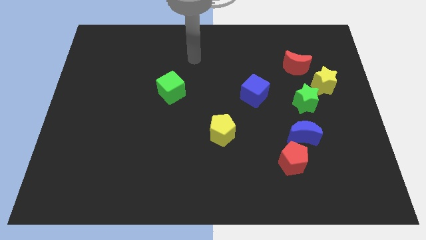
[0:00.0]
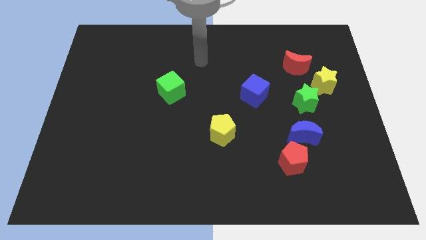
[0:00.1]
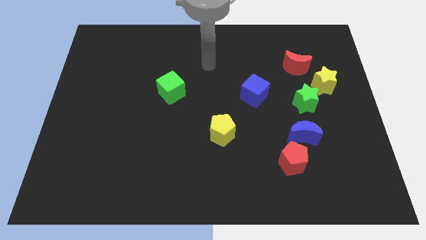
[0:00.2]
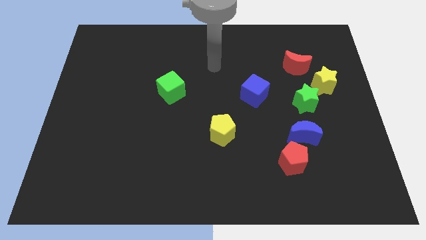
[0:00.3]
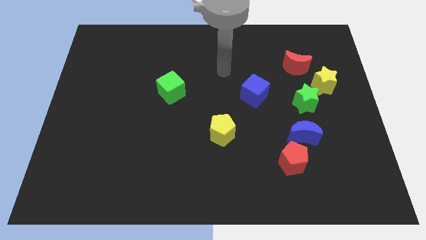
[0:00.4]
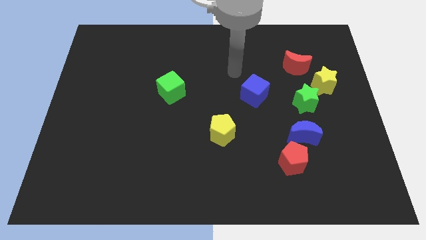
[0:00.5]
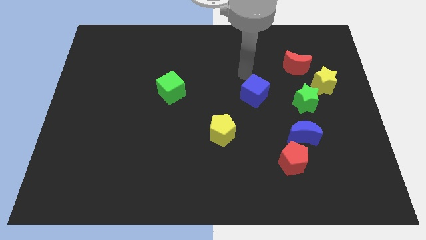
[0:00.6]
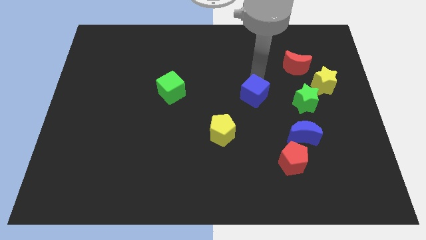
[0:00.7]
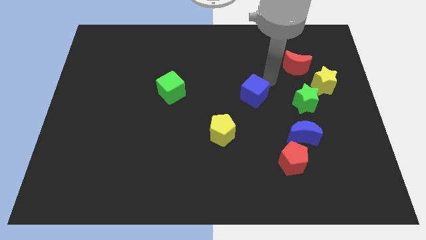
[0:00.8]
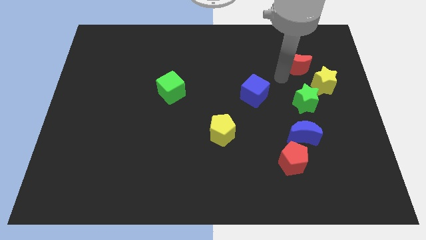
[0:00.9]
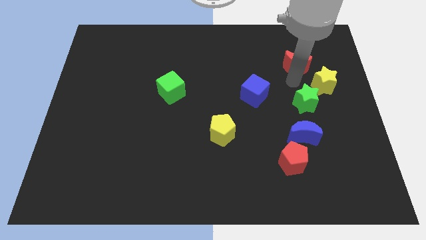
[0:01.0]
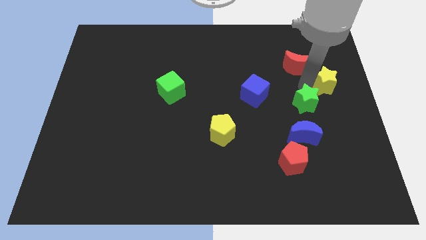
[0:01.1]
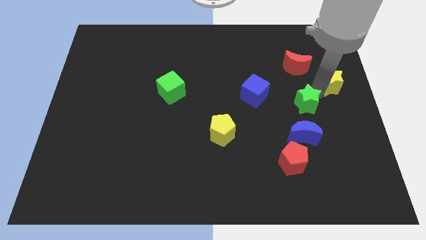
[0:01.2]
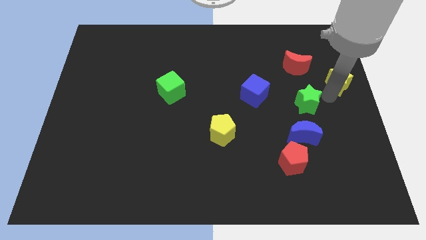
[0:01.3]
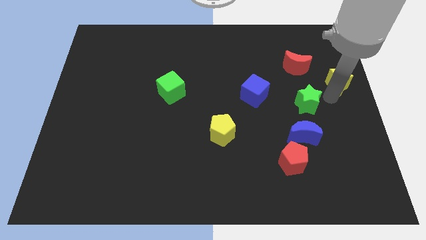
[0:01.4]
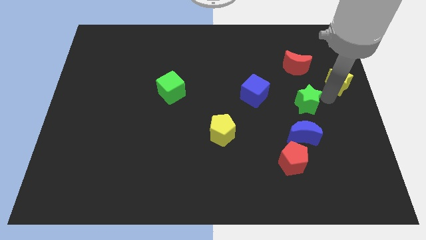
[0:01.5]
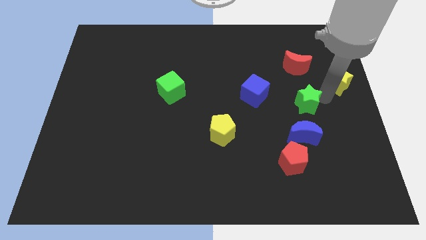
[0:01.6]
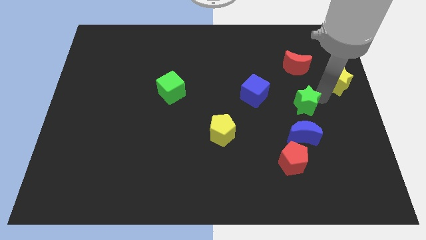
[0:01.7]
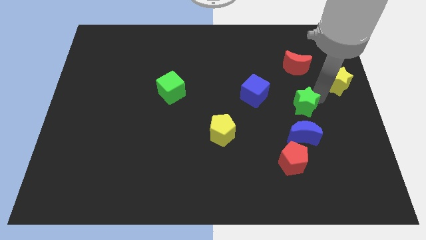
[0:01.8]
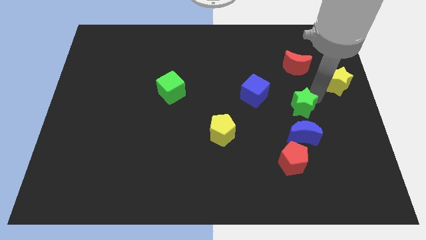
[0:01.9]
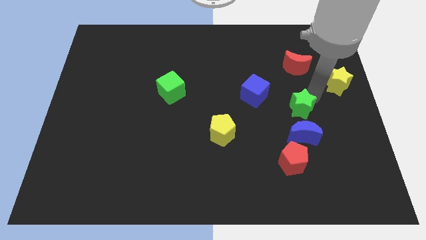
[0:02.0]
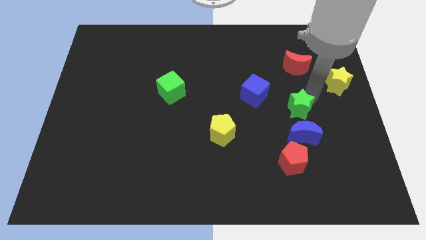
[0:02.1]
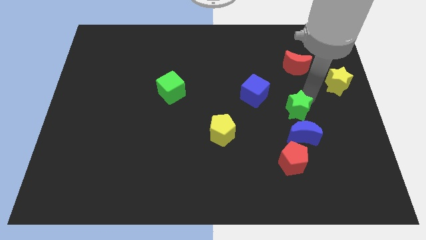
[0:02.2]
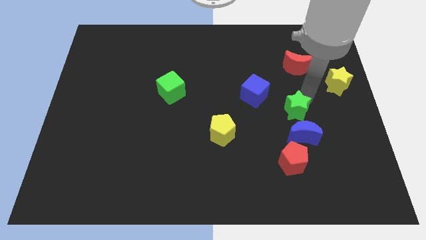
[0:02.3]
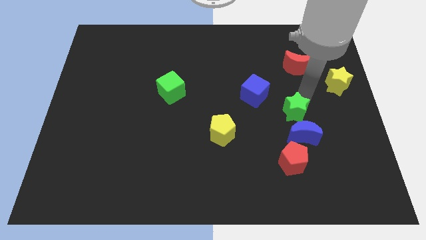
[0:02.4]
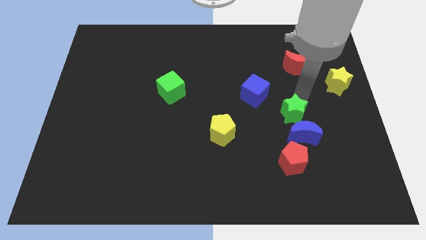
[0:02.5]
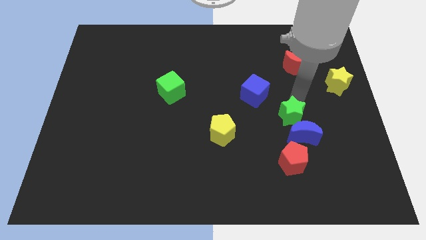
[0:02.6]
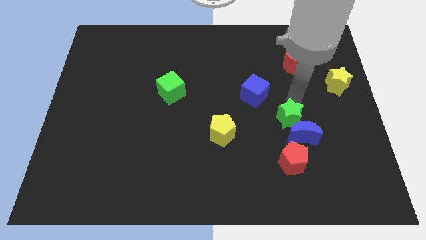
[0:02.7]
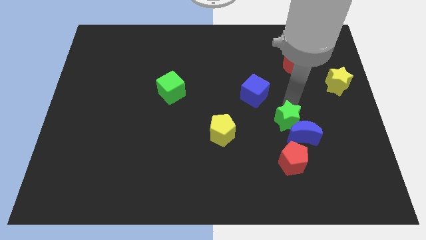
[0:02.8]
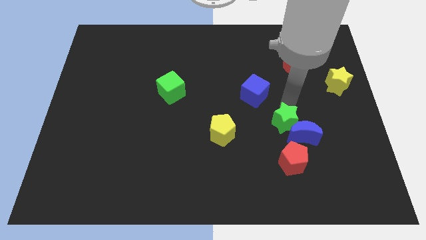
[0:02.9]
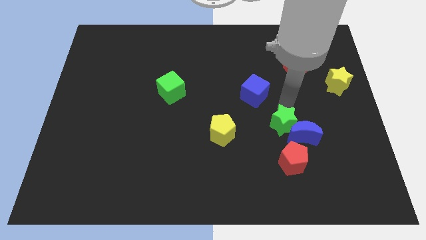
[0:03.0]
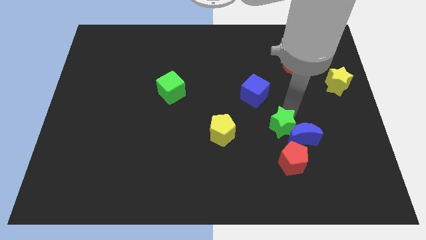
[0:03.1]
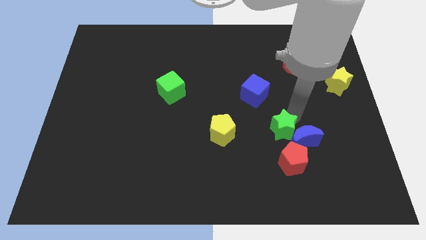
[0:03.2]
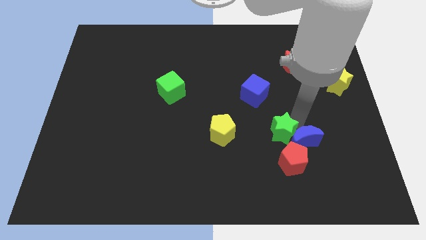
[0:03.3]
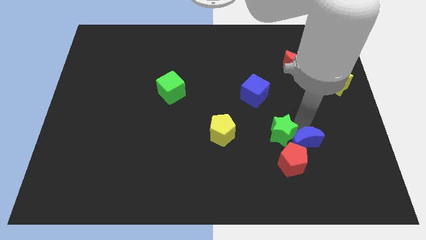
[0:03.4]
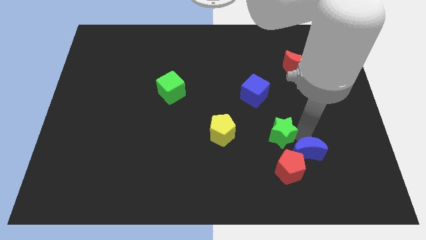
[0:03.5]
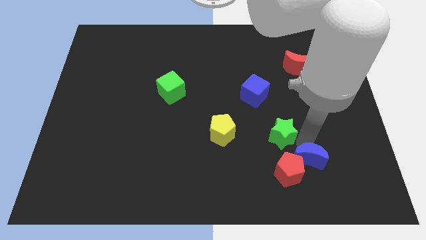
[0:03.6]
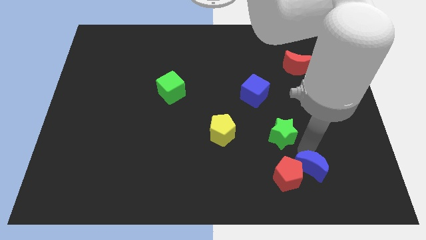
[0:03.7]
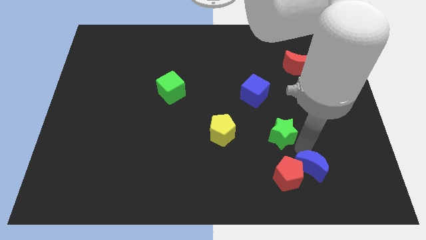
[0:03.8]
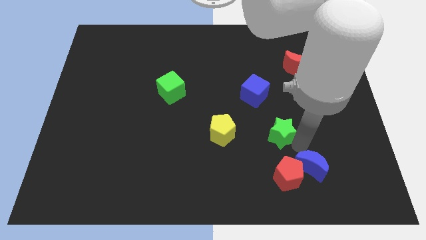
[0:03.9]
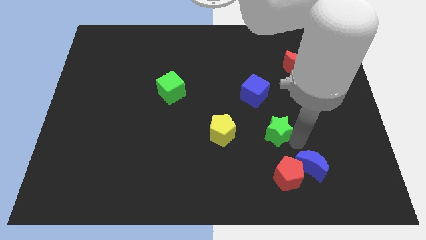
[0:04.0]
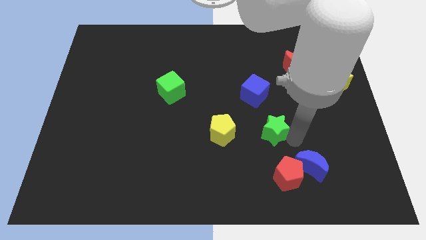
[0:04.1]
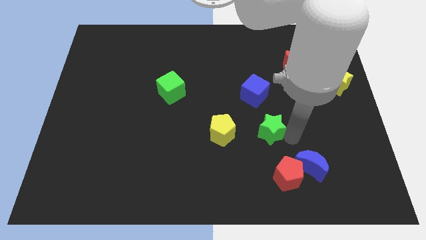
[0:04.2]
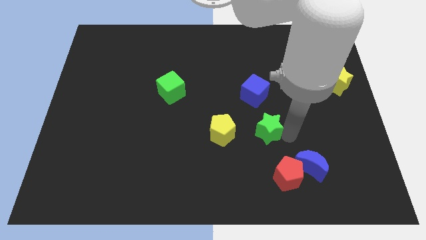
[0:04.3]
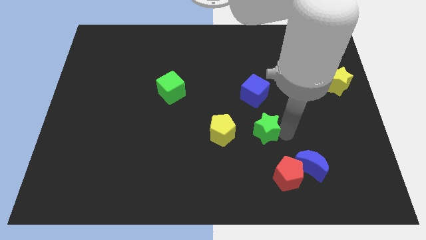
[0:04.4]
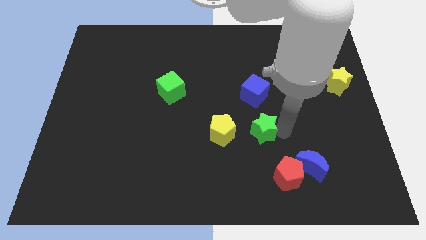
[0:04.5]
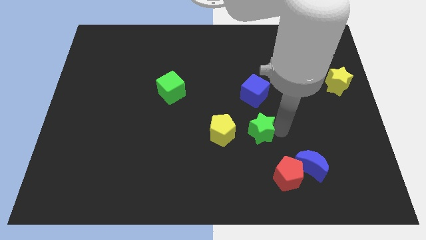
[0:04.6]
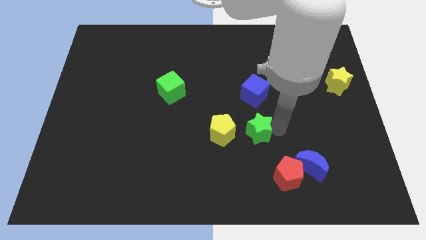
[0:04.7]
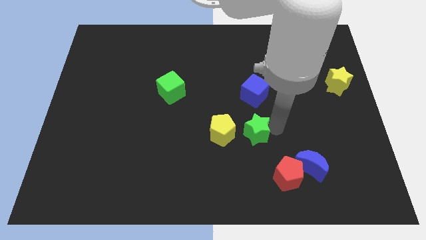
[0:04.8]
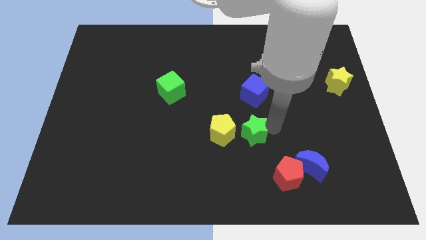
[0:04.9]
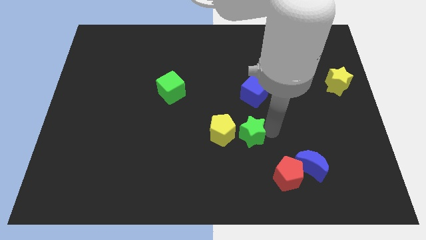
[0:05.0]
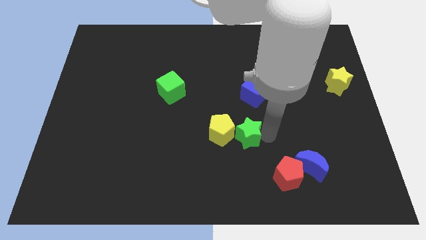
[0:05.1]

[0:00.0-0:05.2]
put the green star next to the yellow pentagon

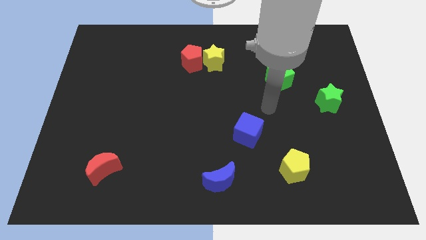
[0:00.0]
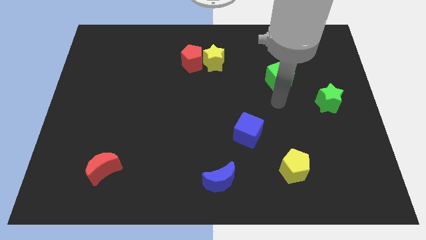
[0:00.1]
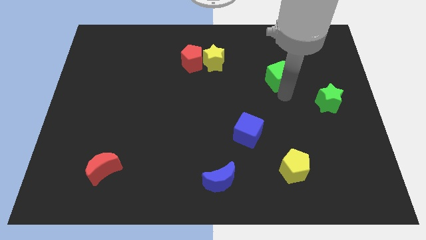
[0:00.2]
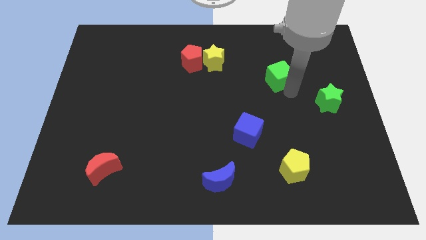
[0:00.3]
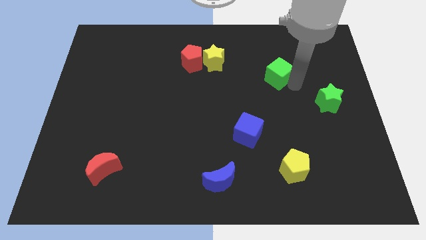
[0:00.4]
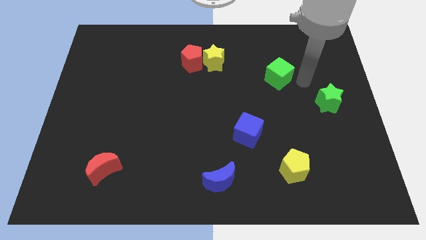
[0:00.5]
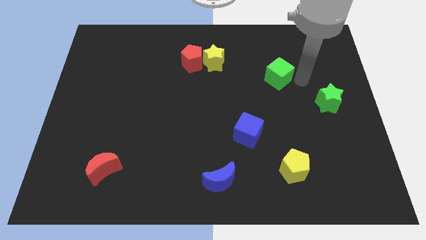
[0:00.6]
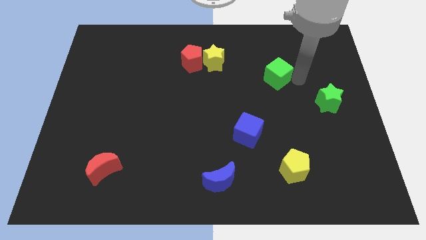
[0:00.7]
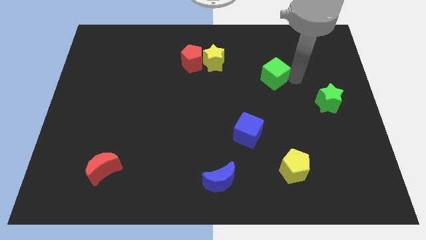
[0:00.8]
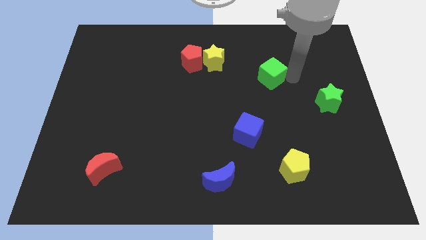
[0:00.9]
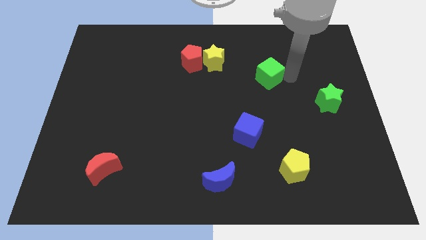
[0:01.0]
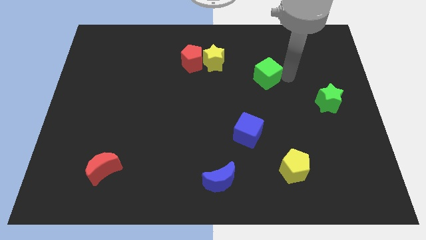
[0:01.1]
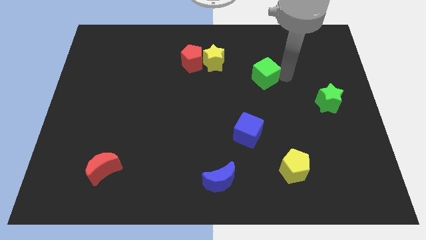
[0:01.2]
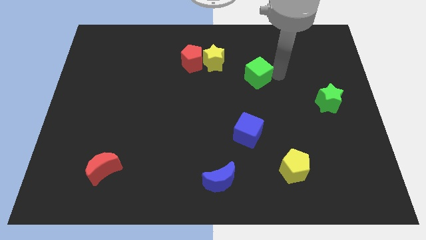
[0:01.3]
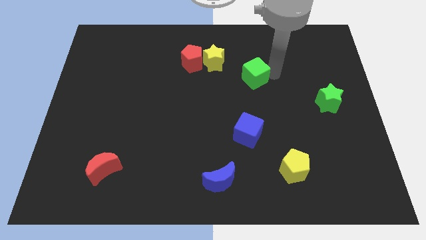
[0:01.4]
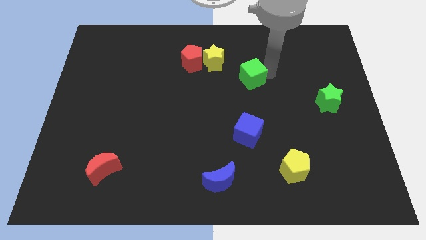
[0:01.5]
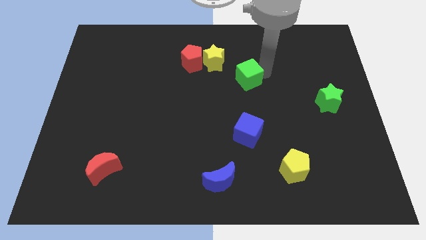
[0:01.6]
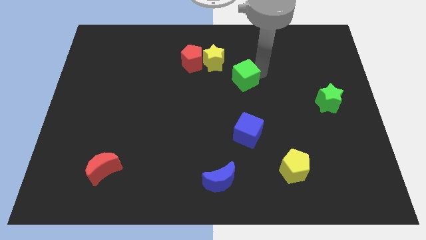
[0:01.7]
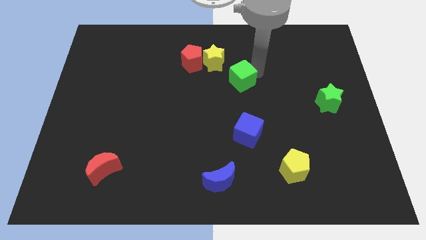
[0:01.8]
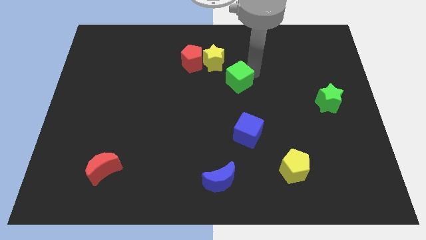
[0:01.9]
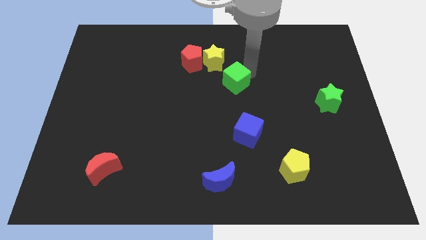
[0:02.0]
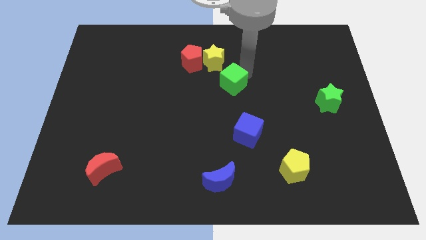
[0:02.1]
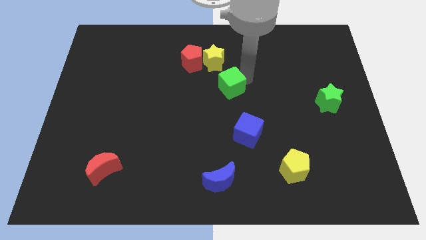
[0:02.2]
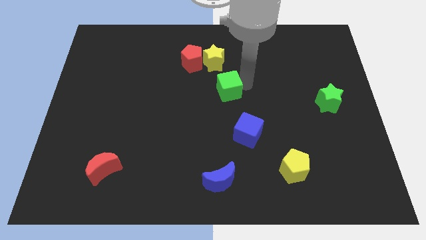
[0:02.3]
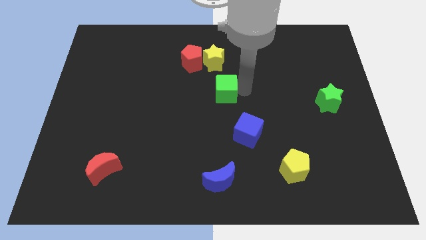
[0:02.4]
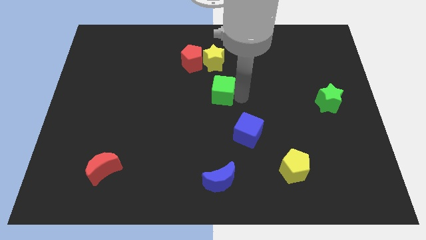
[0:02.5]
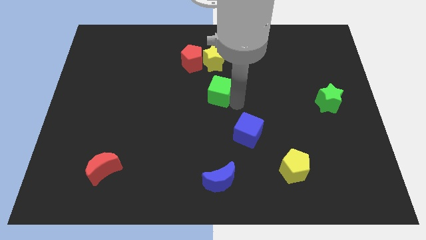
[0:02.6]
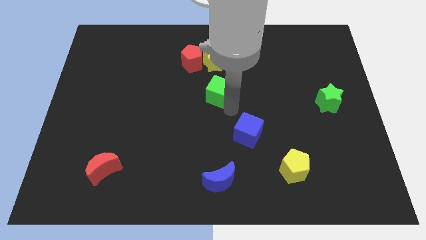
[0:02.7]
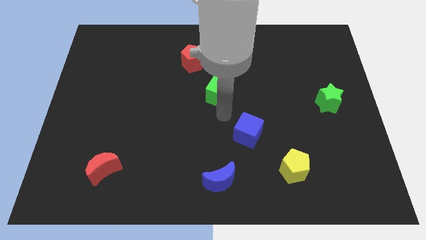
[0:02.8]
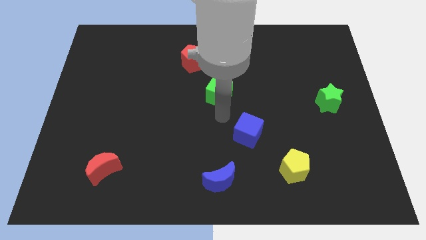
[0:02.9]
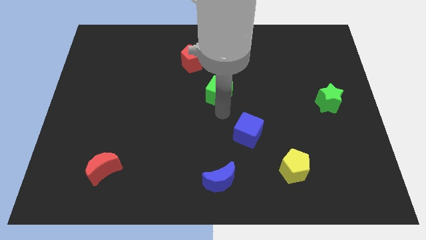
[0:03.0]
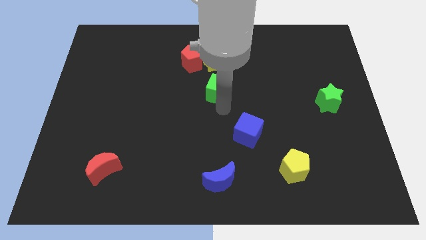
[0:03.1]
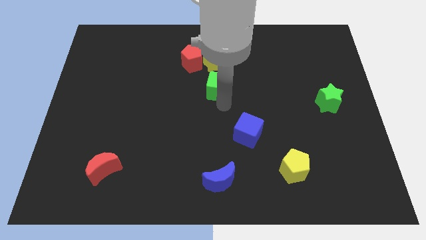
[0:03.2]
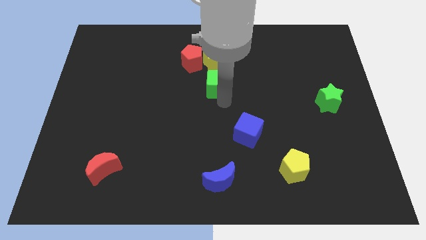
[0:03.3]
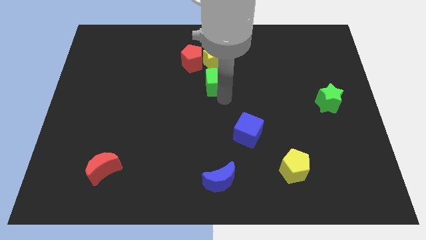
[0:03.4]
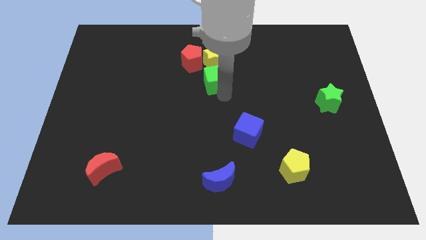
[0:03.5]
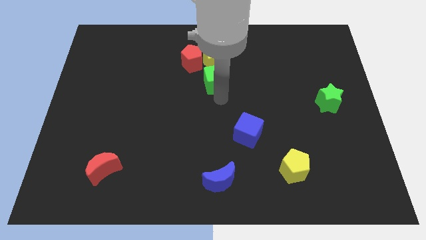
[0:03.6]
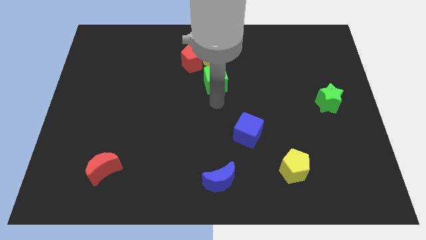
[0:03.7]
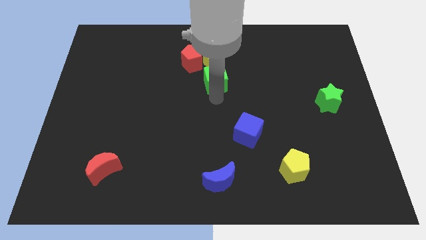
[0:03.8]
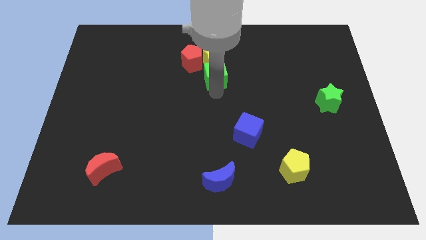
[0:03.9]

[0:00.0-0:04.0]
put the green cube close to the yellow star
